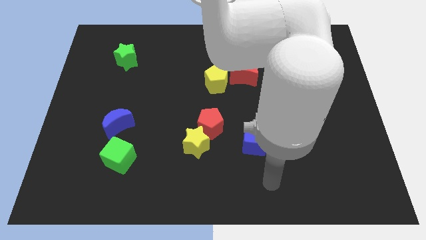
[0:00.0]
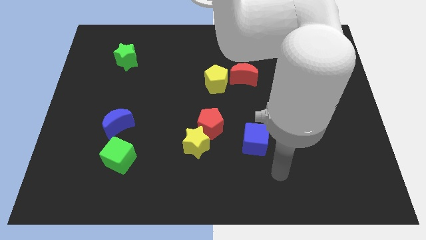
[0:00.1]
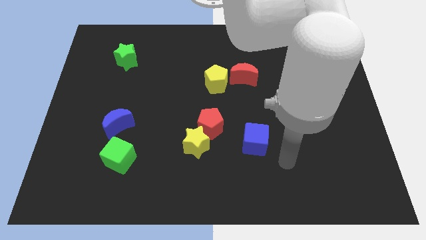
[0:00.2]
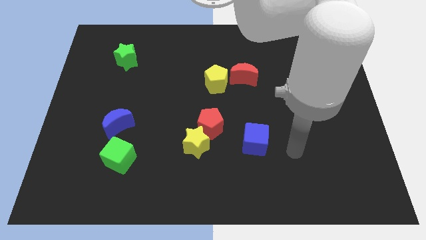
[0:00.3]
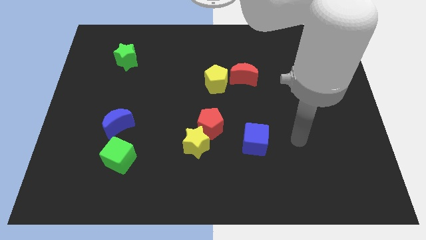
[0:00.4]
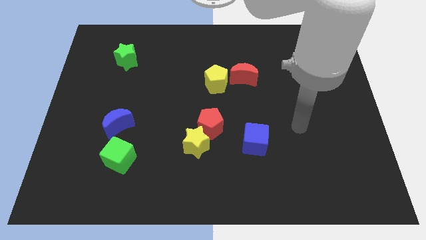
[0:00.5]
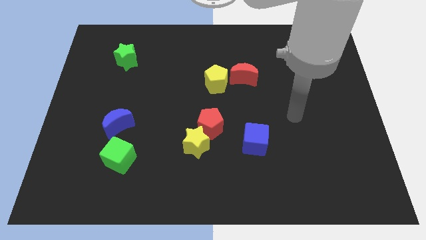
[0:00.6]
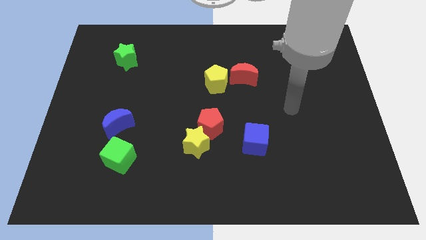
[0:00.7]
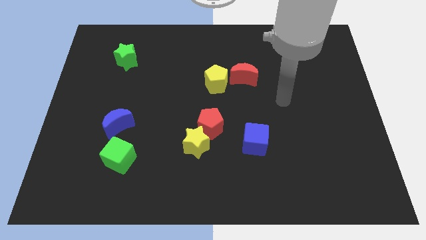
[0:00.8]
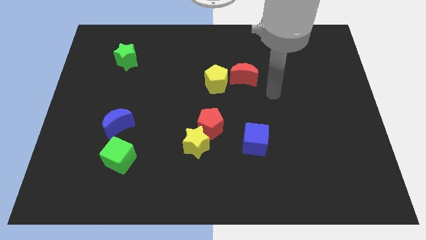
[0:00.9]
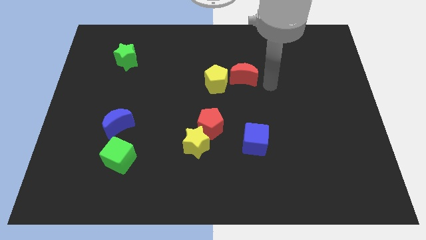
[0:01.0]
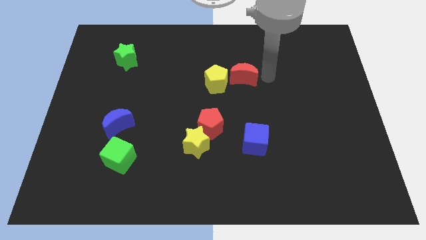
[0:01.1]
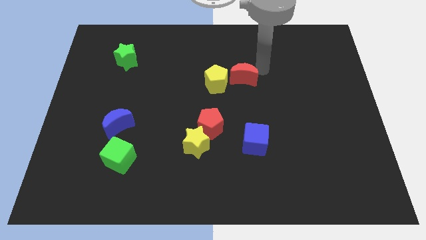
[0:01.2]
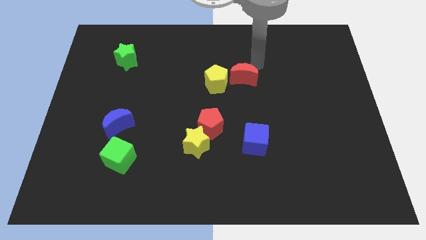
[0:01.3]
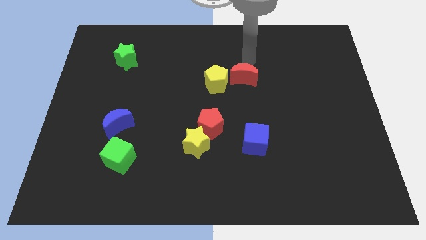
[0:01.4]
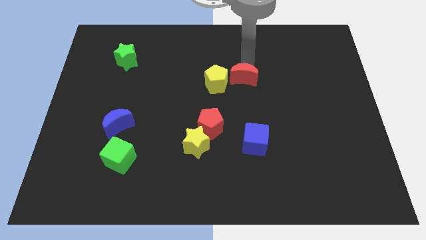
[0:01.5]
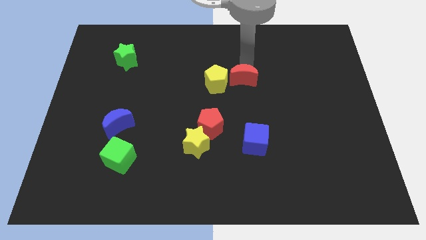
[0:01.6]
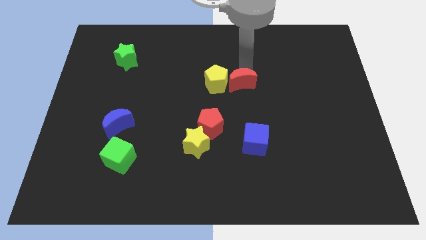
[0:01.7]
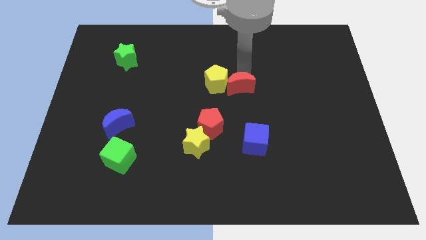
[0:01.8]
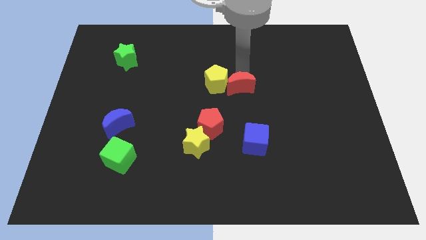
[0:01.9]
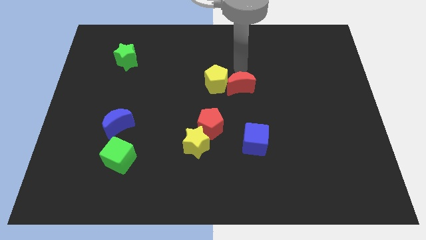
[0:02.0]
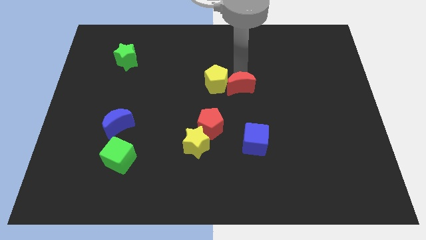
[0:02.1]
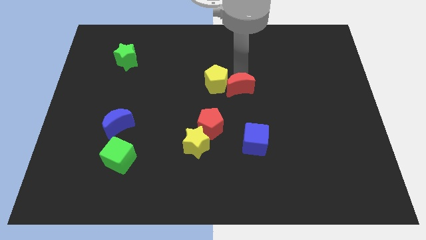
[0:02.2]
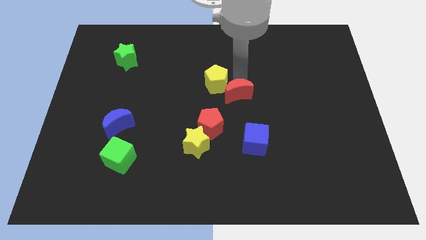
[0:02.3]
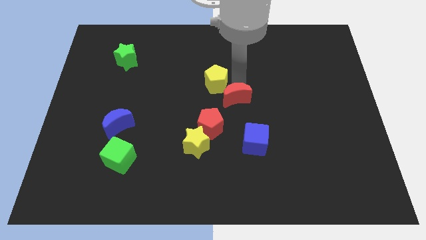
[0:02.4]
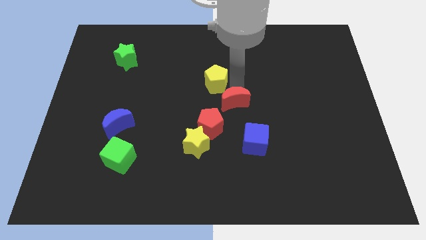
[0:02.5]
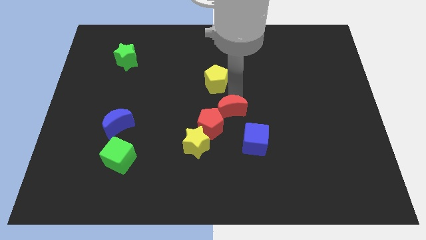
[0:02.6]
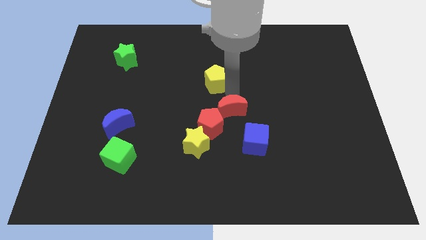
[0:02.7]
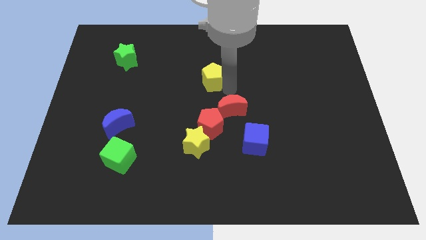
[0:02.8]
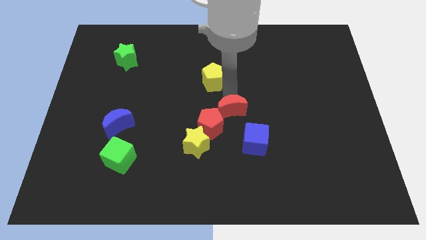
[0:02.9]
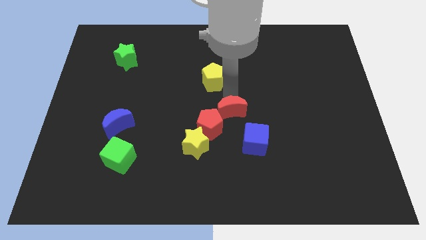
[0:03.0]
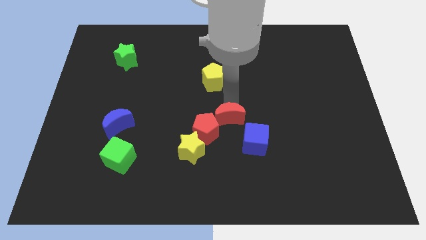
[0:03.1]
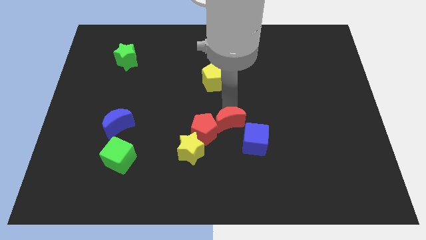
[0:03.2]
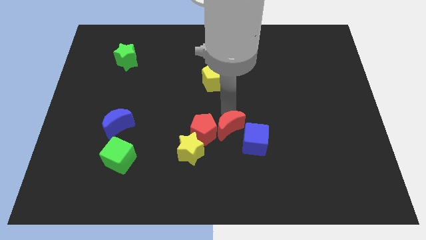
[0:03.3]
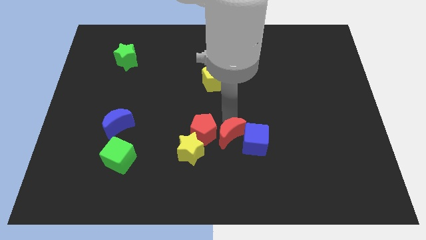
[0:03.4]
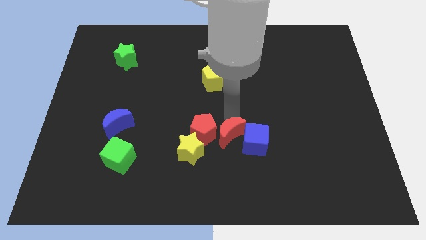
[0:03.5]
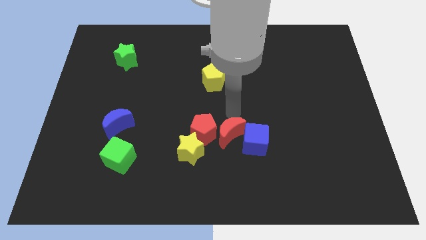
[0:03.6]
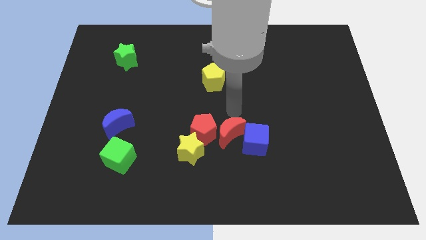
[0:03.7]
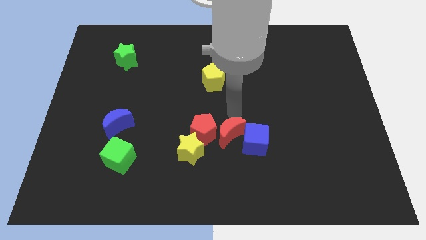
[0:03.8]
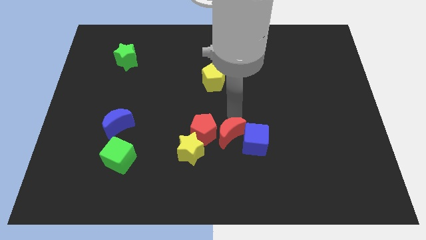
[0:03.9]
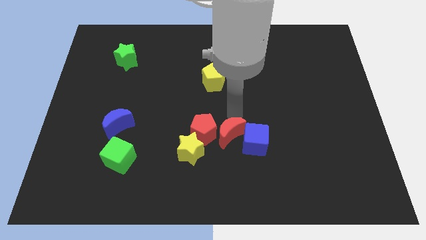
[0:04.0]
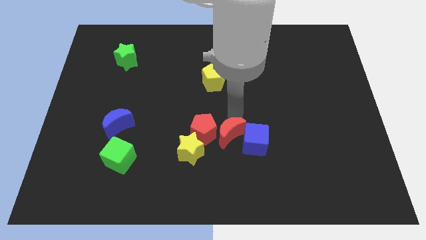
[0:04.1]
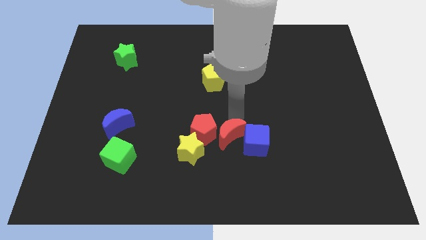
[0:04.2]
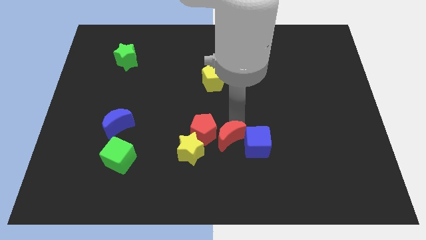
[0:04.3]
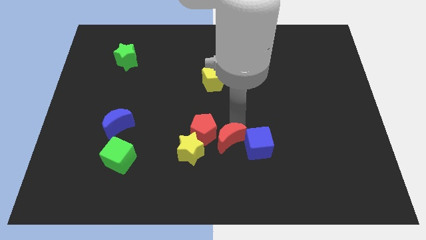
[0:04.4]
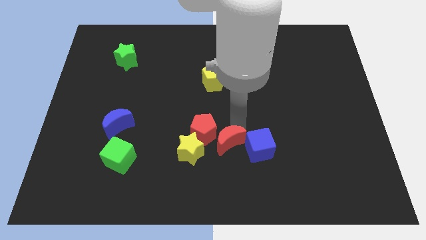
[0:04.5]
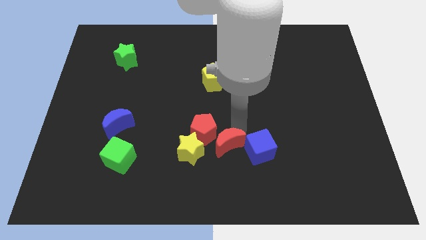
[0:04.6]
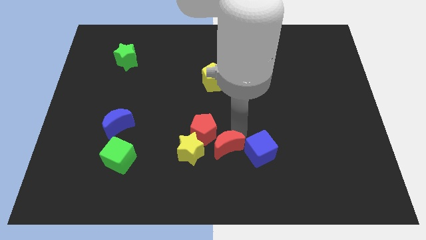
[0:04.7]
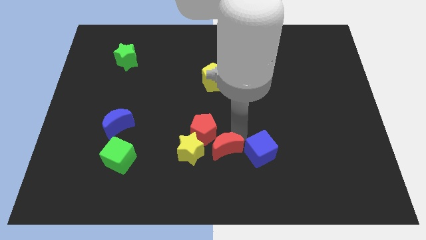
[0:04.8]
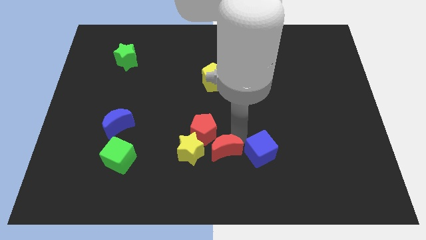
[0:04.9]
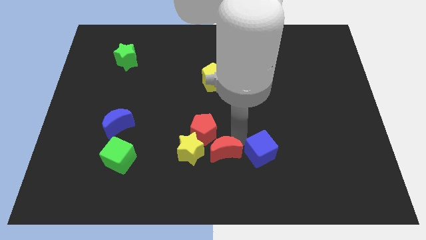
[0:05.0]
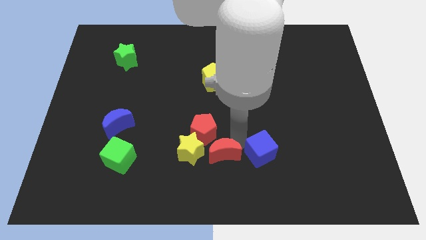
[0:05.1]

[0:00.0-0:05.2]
move the red moon to the bottom side

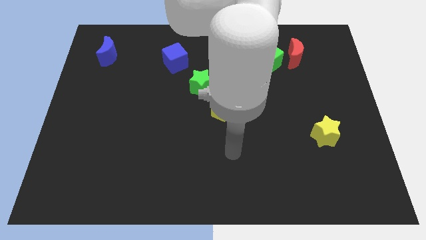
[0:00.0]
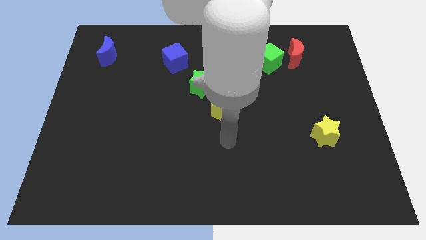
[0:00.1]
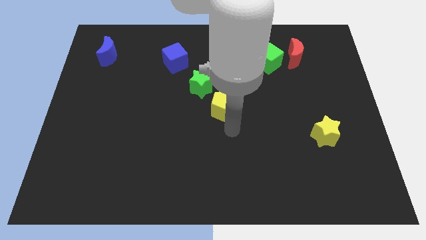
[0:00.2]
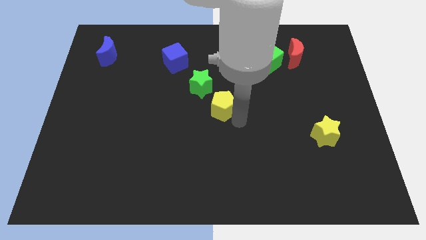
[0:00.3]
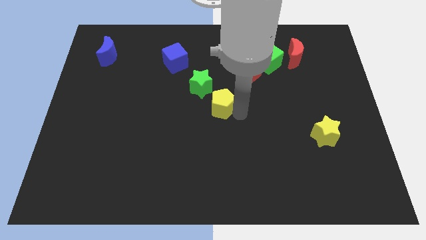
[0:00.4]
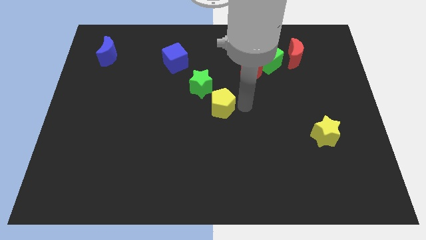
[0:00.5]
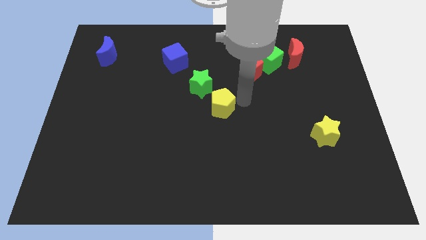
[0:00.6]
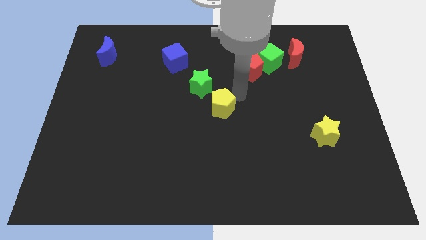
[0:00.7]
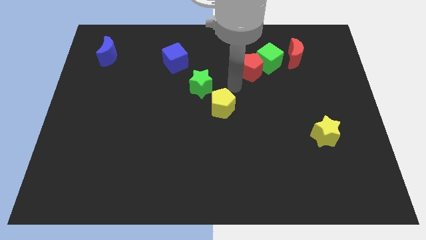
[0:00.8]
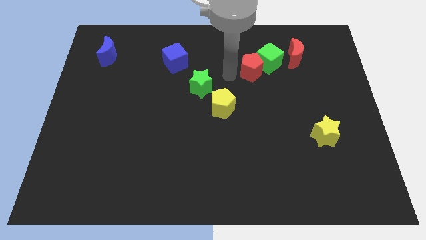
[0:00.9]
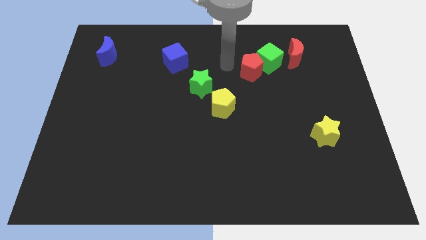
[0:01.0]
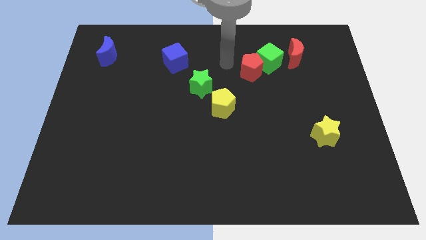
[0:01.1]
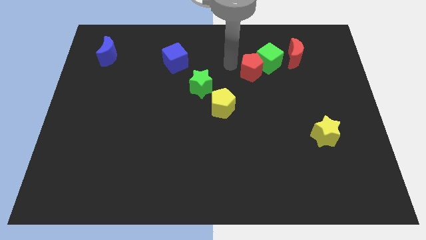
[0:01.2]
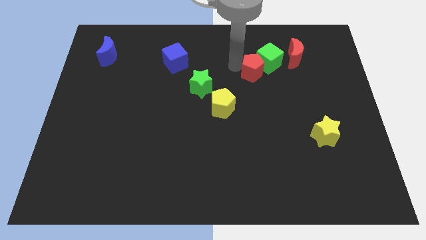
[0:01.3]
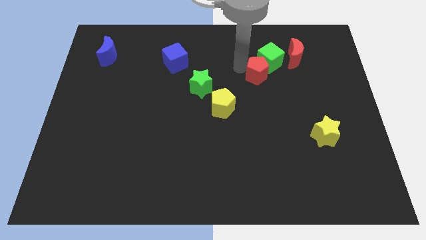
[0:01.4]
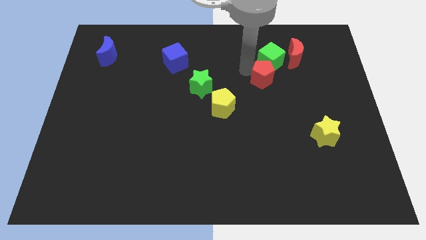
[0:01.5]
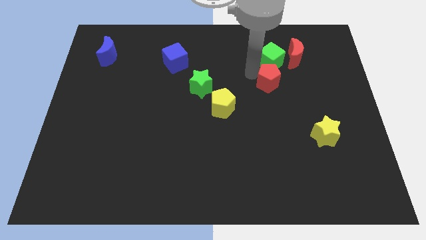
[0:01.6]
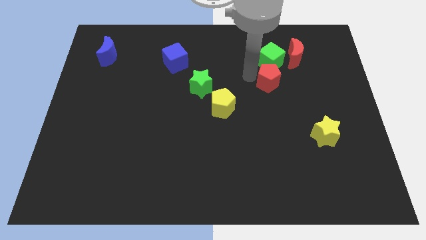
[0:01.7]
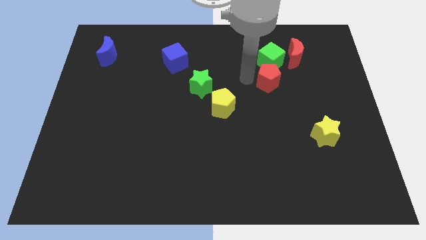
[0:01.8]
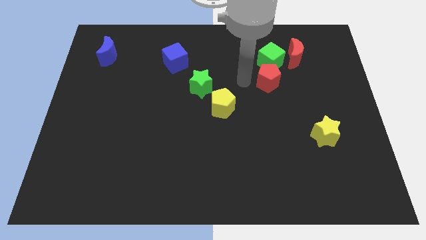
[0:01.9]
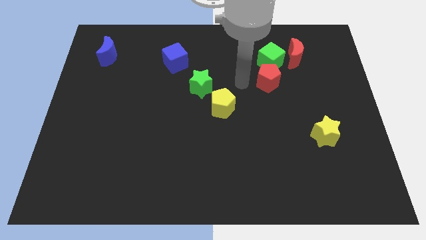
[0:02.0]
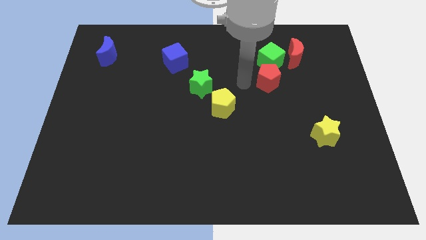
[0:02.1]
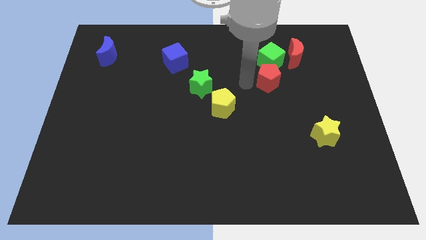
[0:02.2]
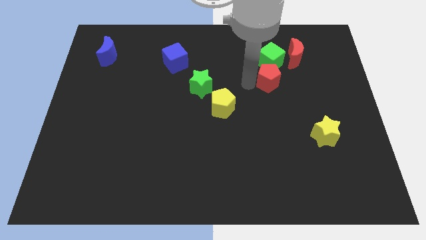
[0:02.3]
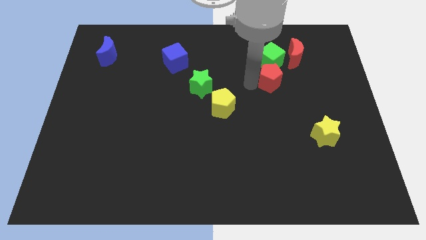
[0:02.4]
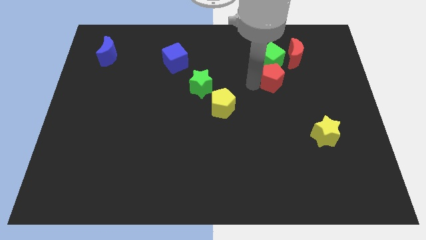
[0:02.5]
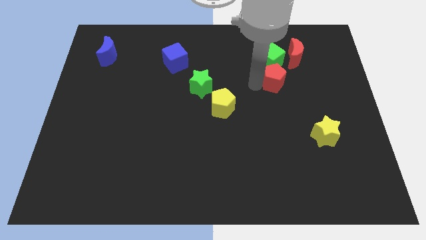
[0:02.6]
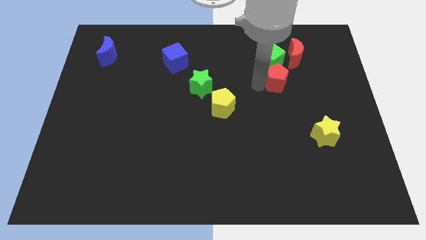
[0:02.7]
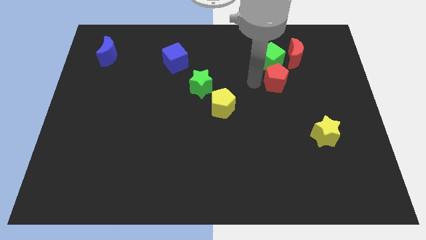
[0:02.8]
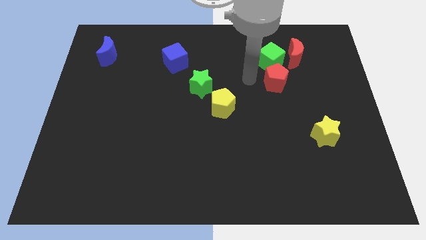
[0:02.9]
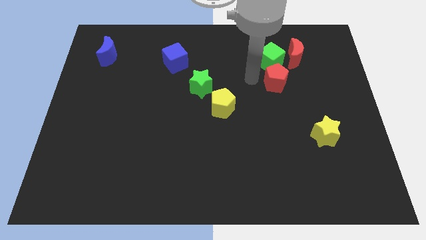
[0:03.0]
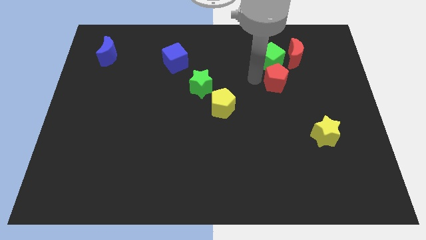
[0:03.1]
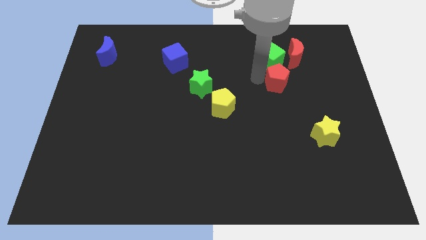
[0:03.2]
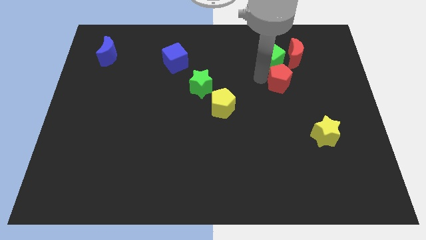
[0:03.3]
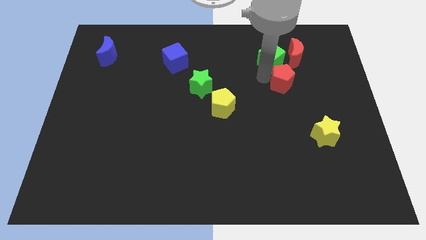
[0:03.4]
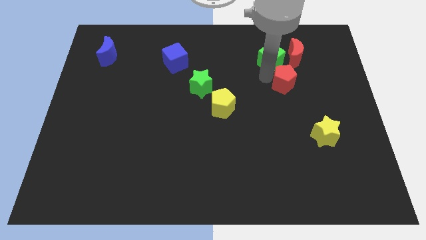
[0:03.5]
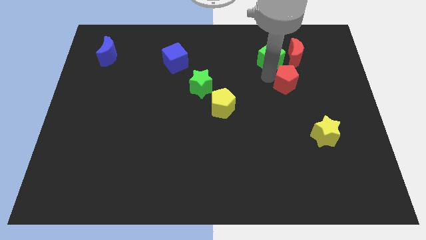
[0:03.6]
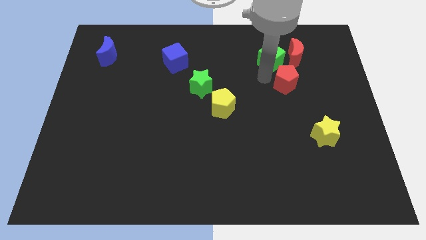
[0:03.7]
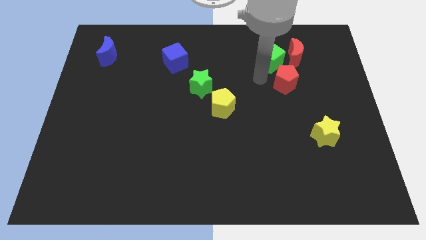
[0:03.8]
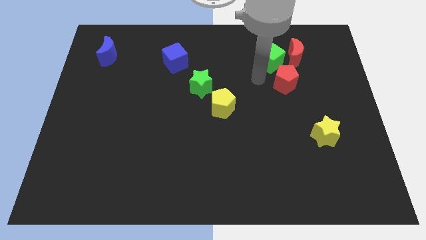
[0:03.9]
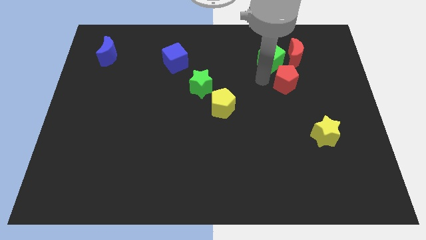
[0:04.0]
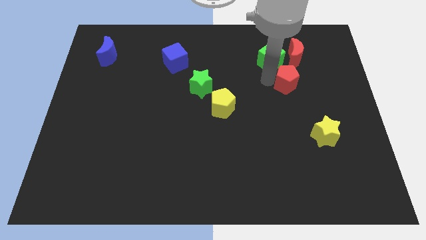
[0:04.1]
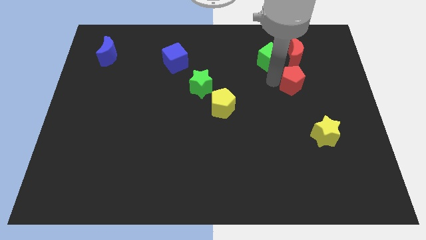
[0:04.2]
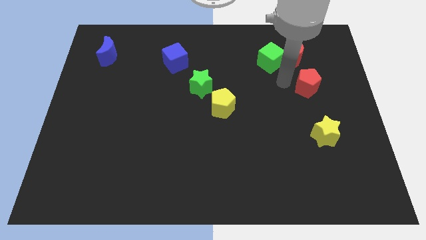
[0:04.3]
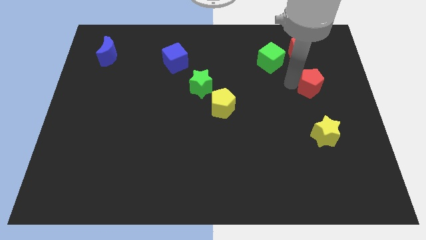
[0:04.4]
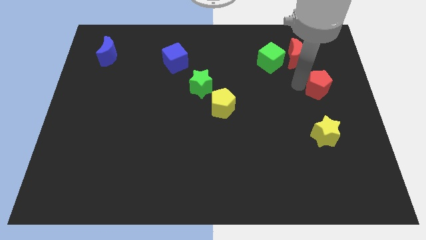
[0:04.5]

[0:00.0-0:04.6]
slide the red pentagon to the right side
